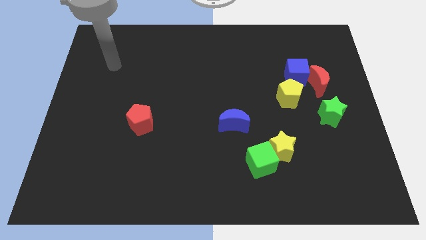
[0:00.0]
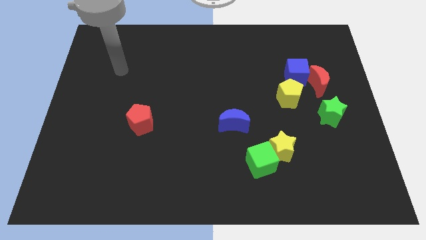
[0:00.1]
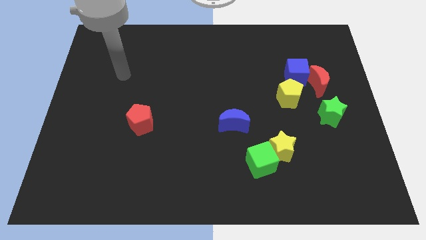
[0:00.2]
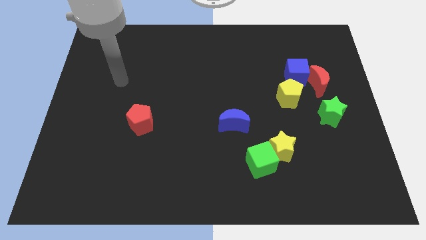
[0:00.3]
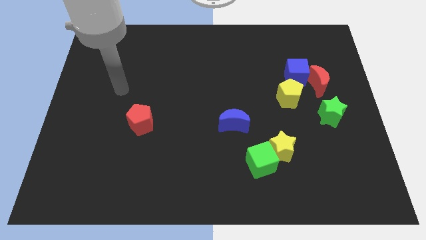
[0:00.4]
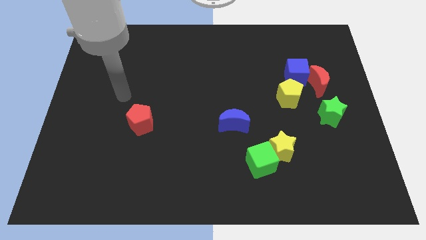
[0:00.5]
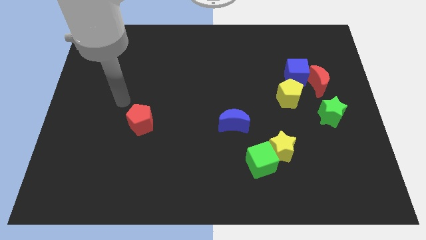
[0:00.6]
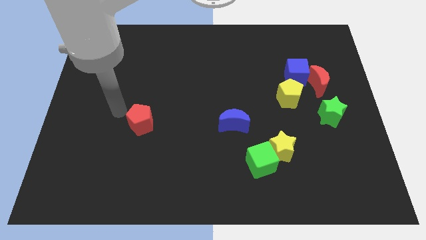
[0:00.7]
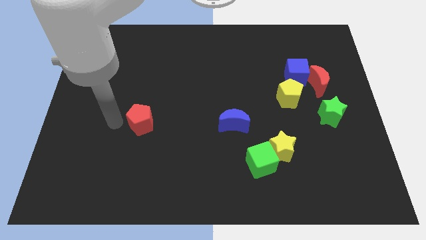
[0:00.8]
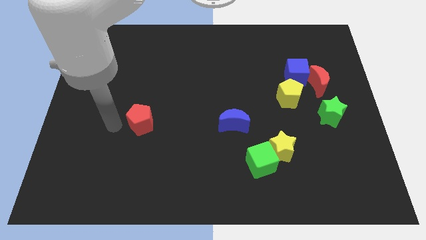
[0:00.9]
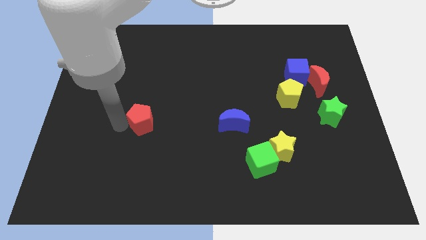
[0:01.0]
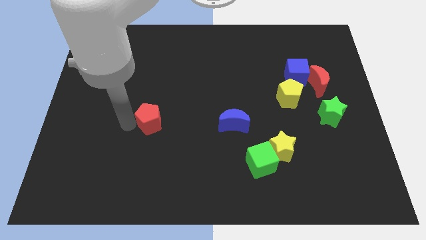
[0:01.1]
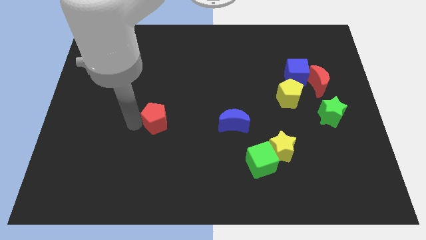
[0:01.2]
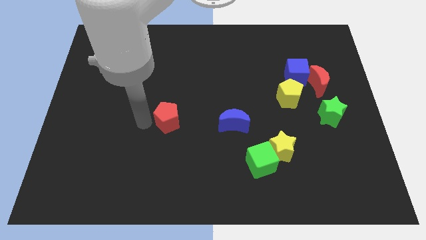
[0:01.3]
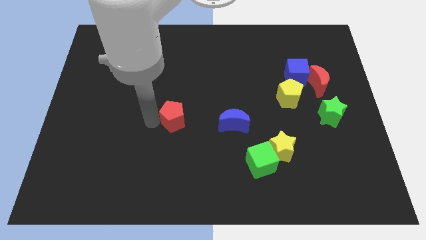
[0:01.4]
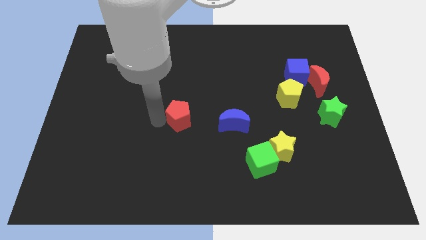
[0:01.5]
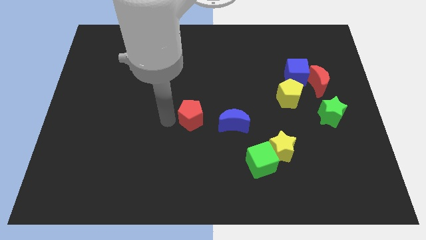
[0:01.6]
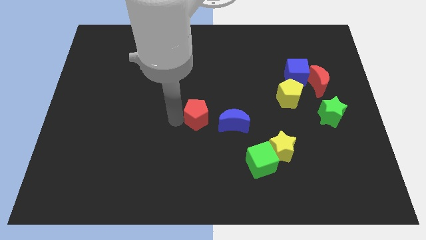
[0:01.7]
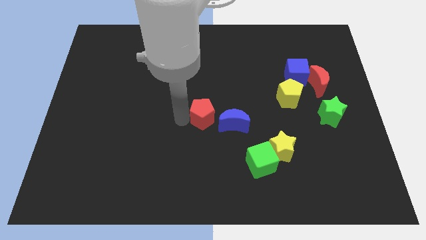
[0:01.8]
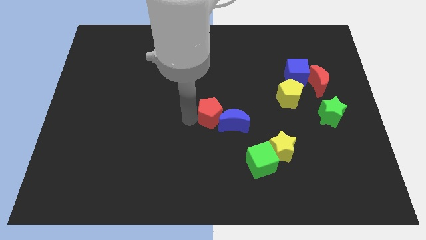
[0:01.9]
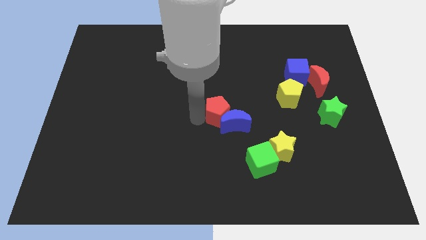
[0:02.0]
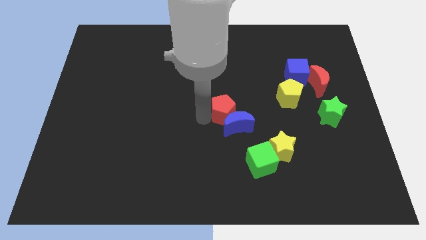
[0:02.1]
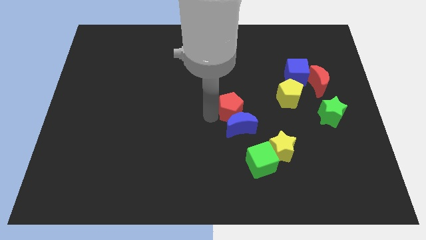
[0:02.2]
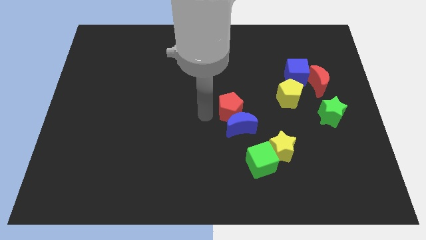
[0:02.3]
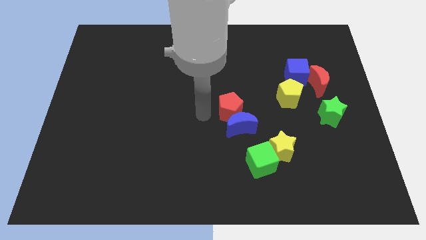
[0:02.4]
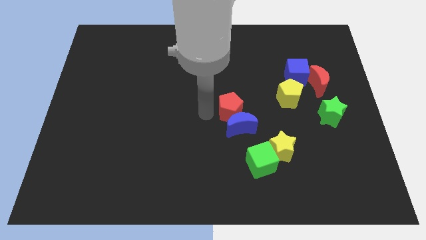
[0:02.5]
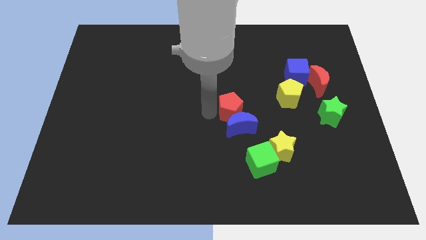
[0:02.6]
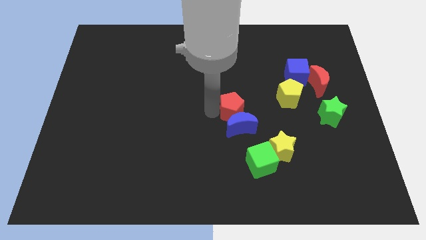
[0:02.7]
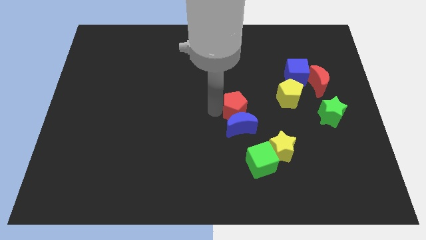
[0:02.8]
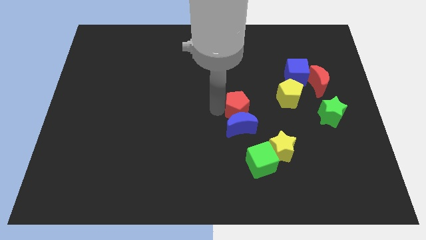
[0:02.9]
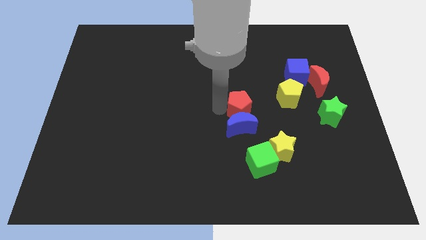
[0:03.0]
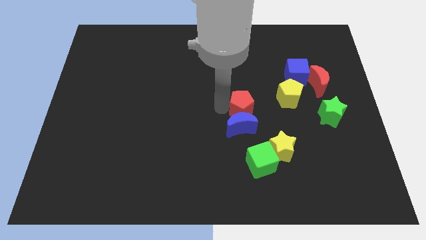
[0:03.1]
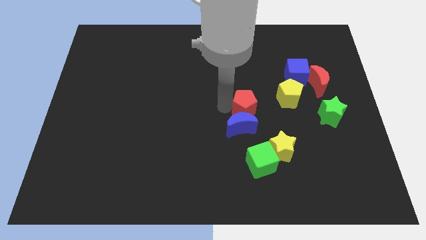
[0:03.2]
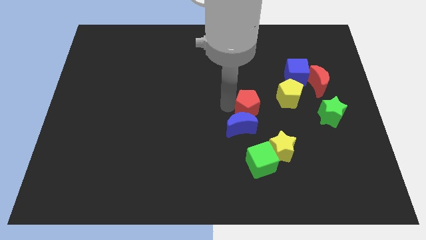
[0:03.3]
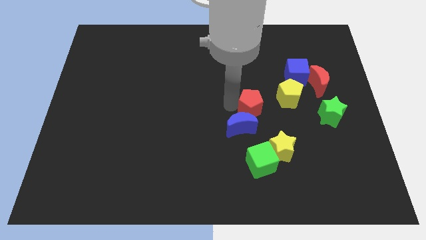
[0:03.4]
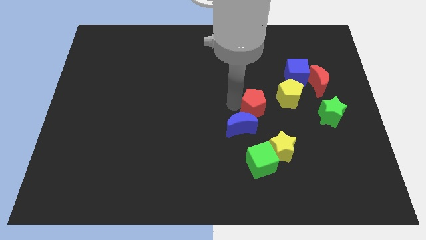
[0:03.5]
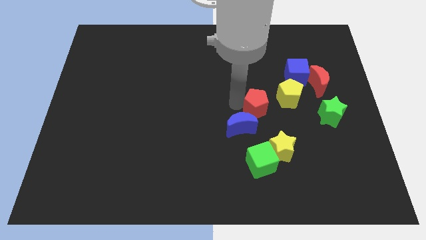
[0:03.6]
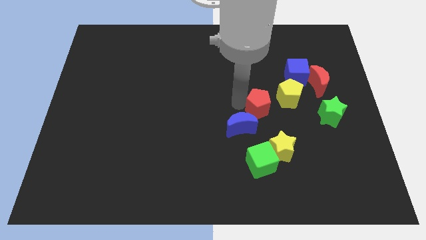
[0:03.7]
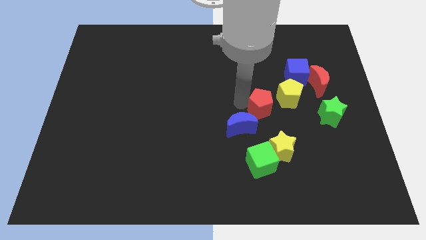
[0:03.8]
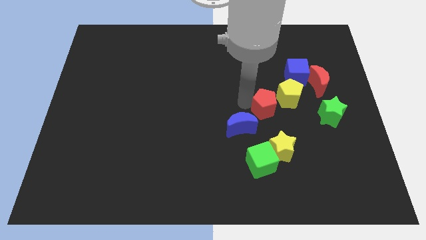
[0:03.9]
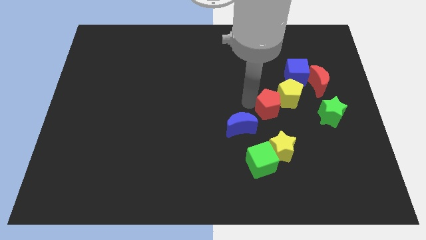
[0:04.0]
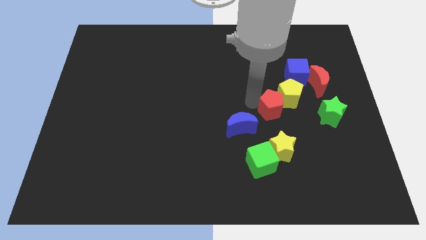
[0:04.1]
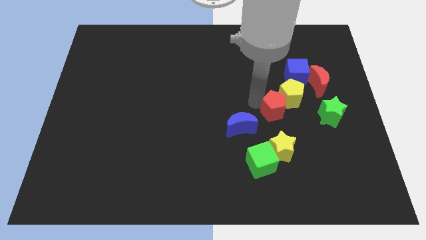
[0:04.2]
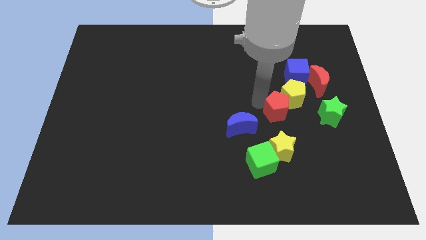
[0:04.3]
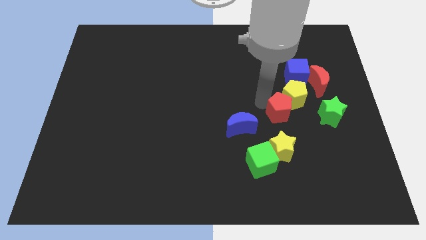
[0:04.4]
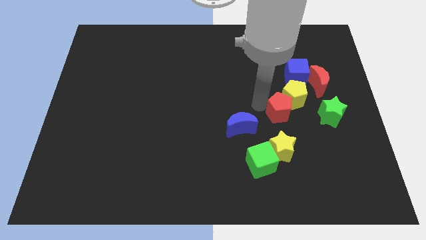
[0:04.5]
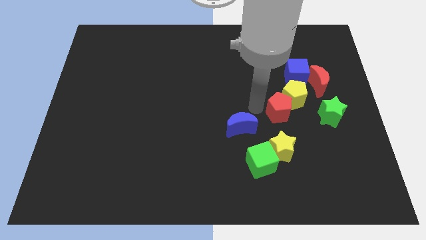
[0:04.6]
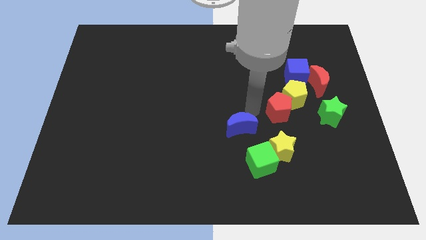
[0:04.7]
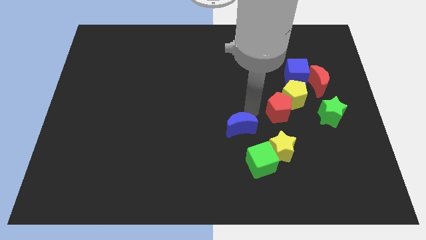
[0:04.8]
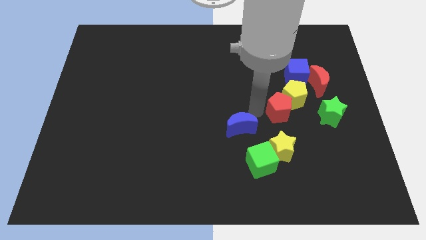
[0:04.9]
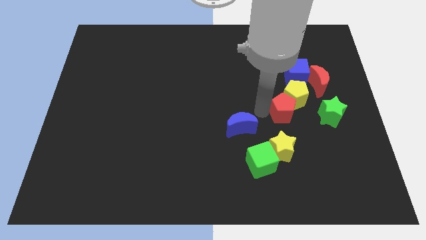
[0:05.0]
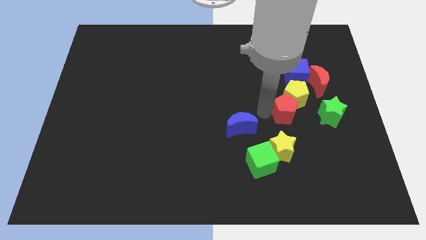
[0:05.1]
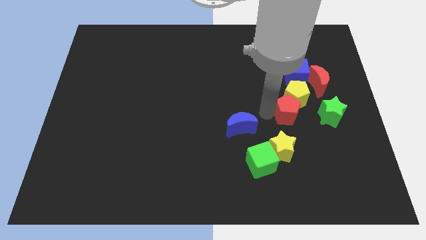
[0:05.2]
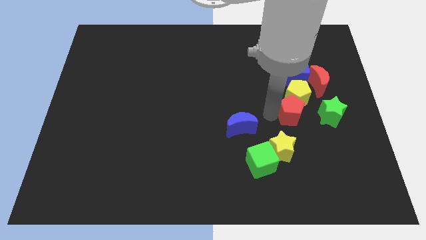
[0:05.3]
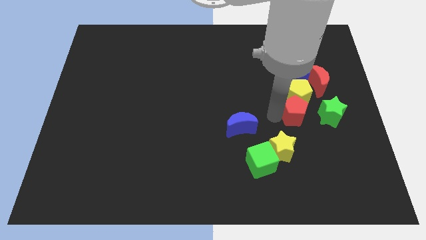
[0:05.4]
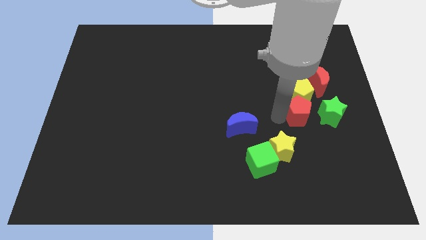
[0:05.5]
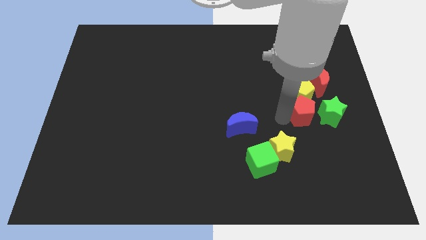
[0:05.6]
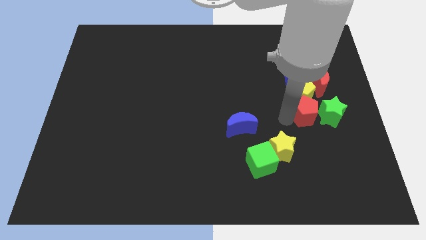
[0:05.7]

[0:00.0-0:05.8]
put the red pentagon towards the green star

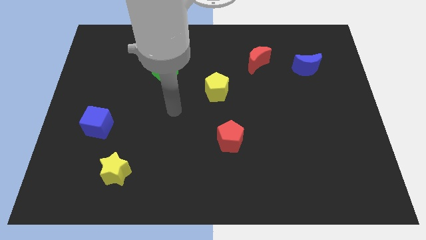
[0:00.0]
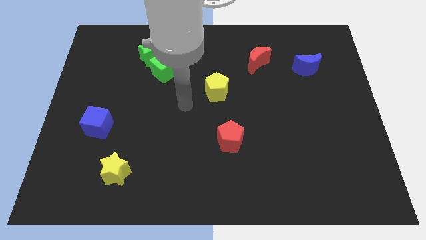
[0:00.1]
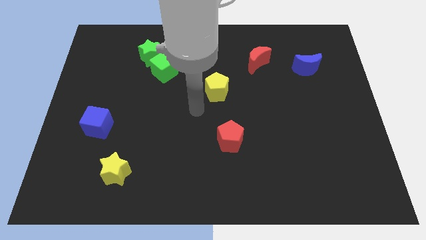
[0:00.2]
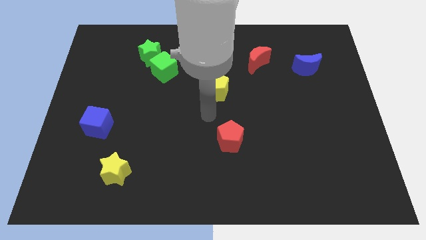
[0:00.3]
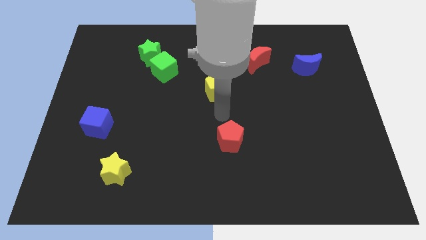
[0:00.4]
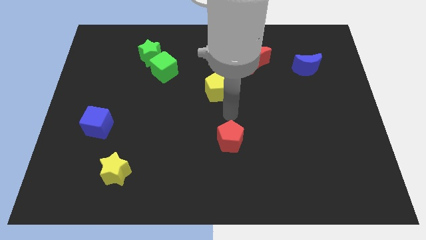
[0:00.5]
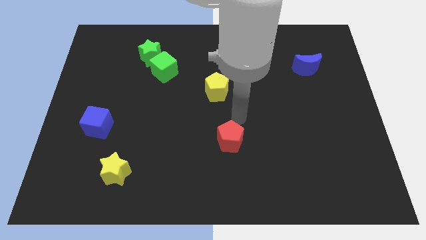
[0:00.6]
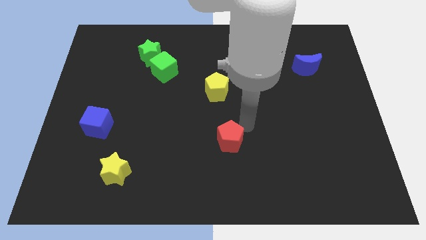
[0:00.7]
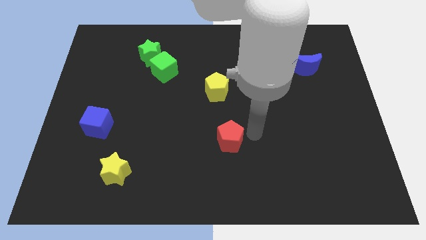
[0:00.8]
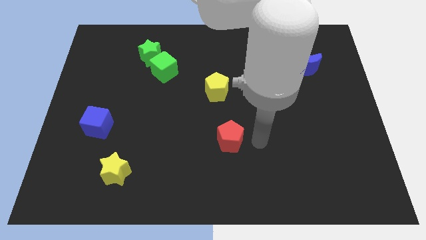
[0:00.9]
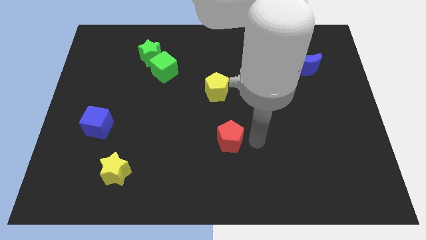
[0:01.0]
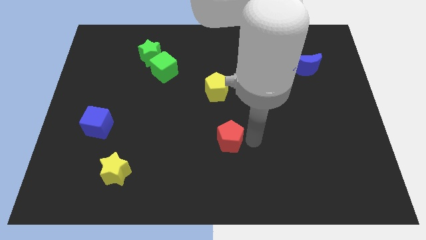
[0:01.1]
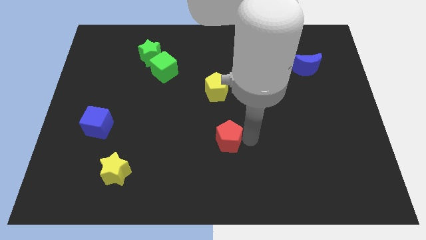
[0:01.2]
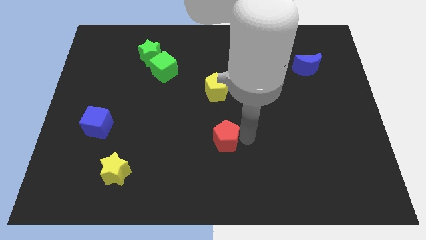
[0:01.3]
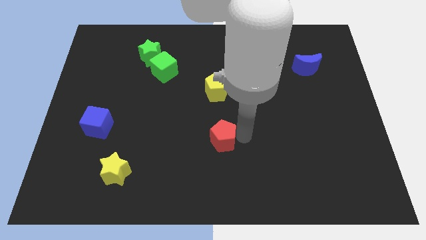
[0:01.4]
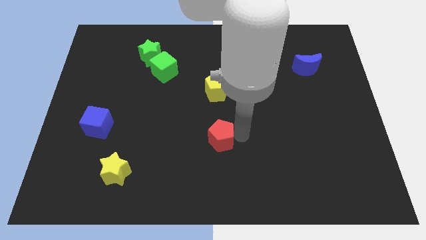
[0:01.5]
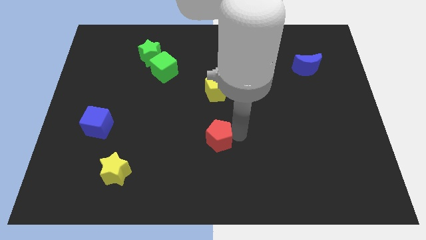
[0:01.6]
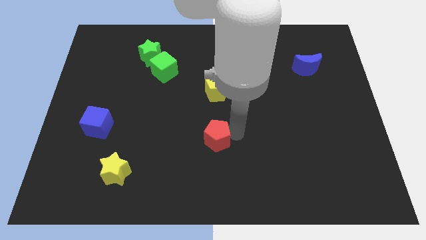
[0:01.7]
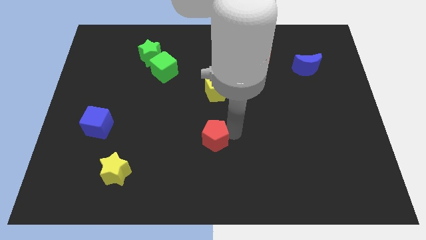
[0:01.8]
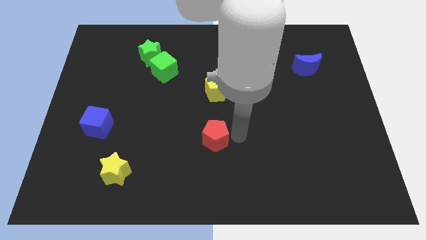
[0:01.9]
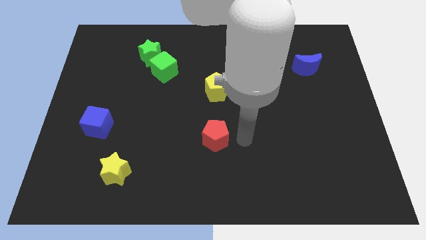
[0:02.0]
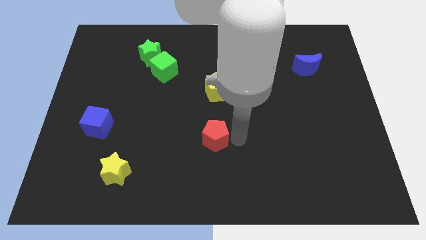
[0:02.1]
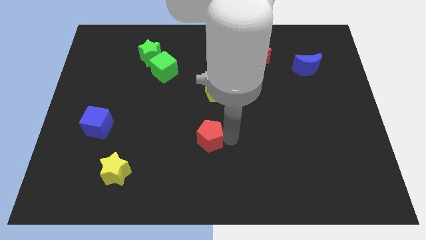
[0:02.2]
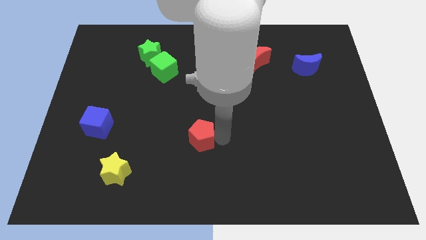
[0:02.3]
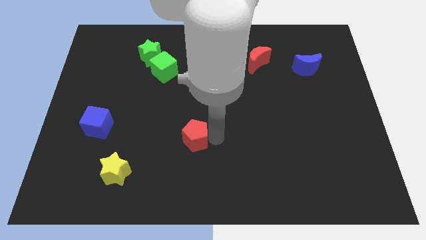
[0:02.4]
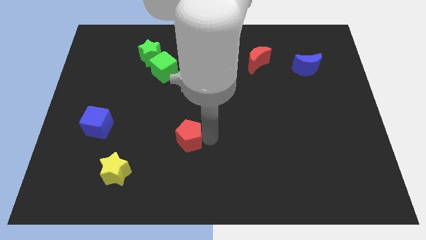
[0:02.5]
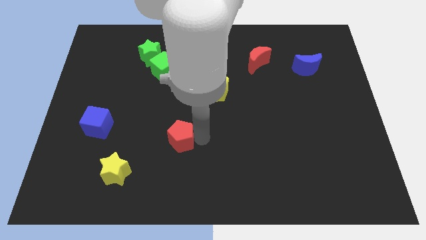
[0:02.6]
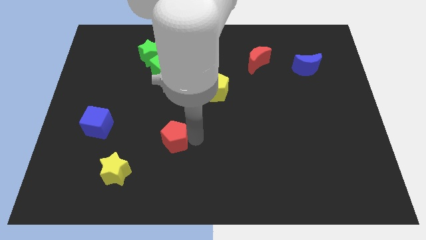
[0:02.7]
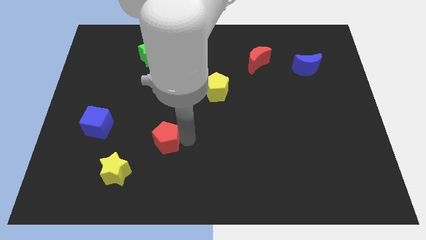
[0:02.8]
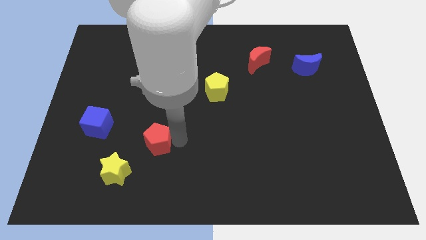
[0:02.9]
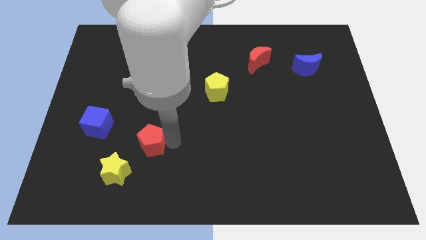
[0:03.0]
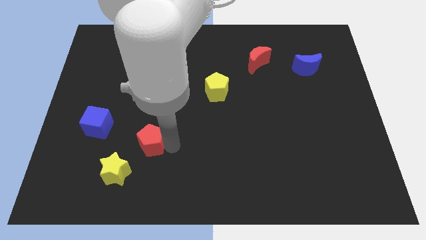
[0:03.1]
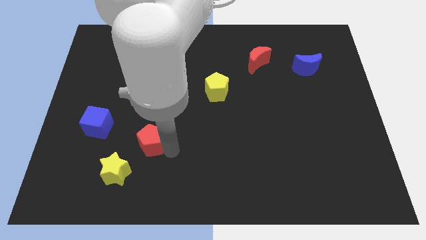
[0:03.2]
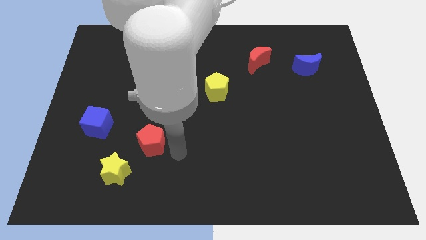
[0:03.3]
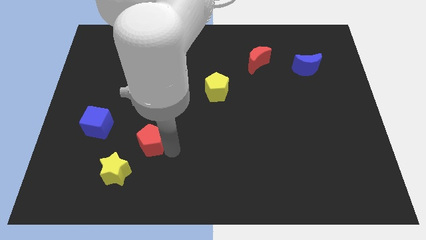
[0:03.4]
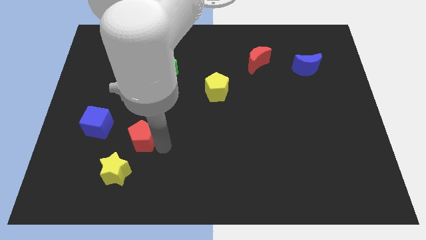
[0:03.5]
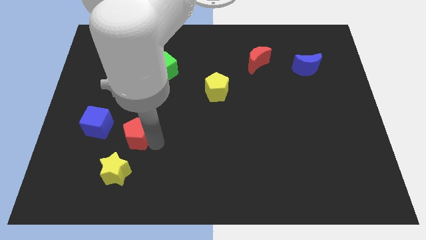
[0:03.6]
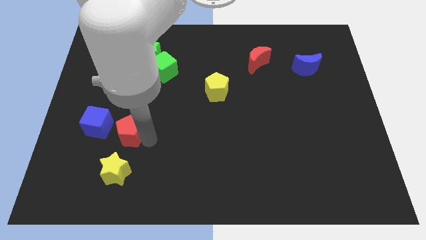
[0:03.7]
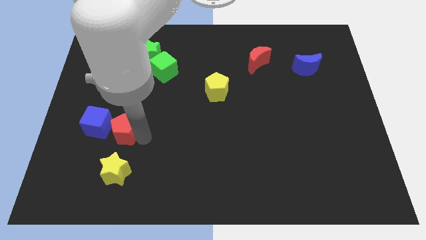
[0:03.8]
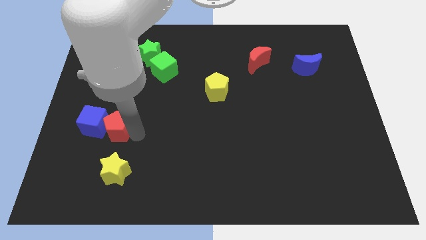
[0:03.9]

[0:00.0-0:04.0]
put the red pentagon to the blue cube
